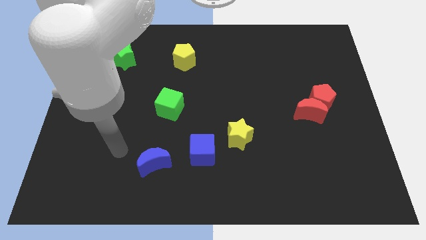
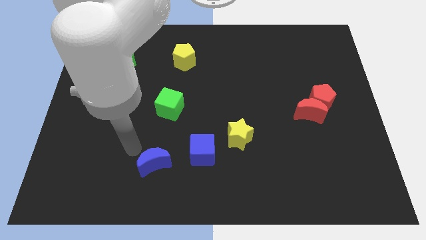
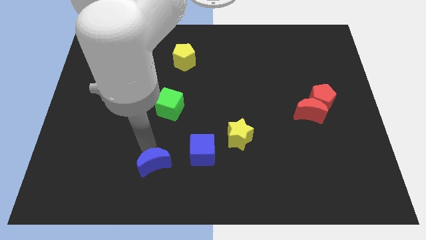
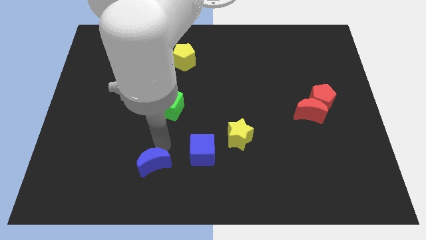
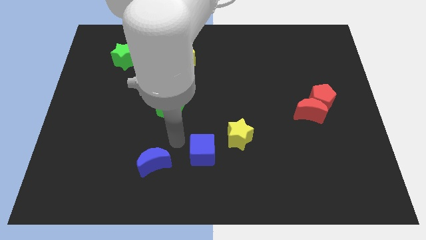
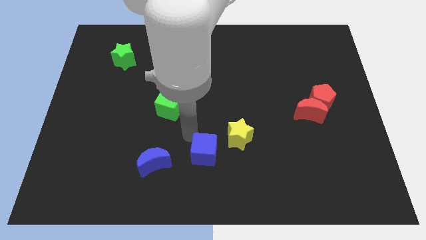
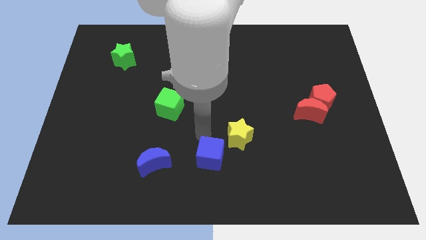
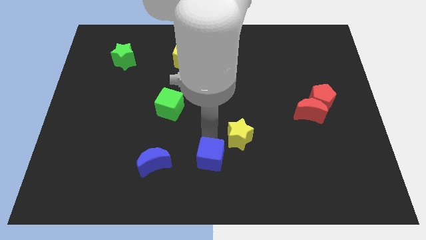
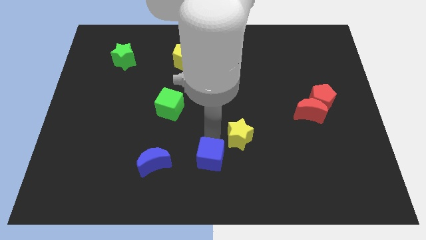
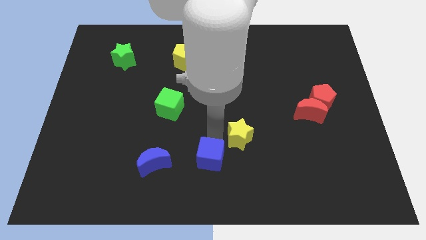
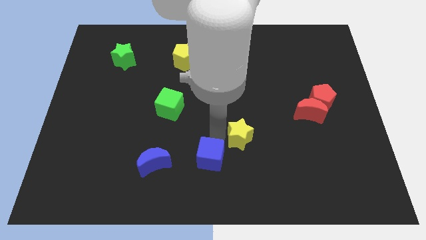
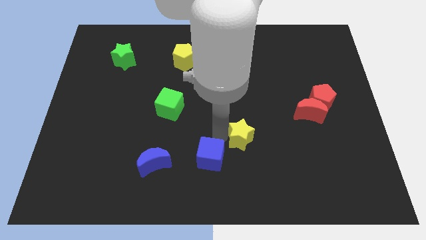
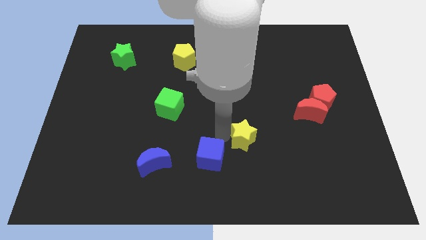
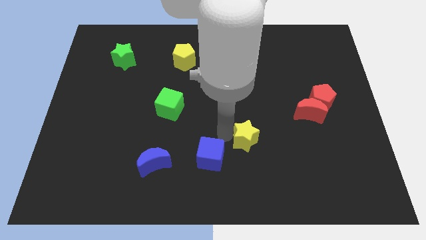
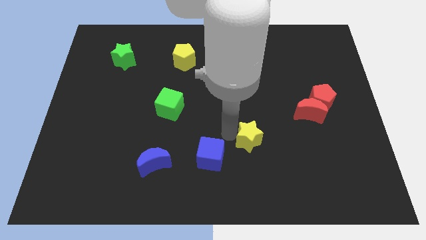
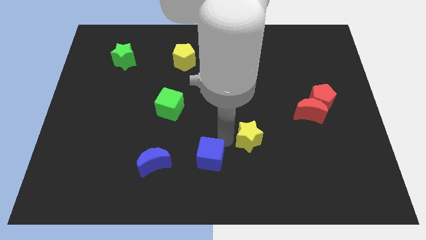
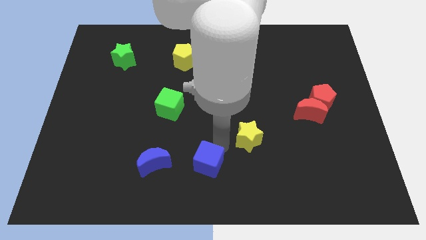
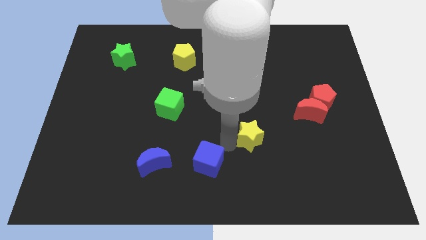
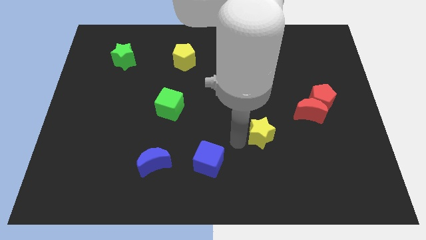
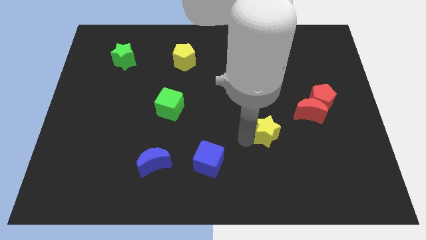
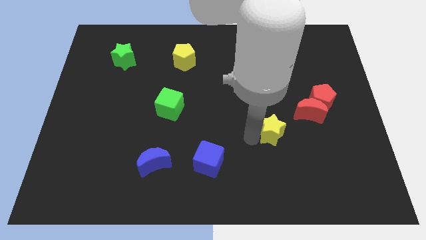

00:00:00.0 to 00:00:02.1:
push the yellow star to the right a bit

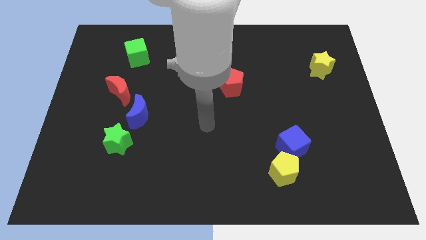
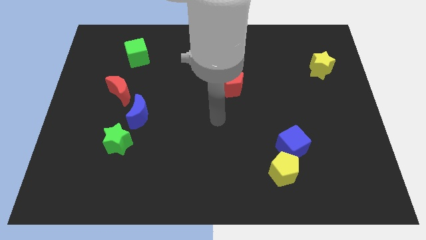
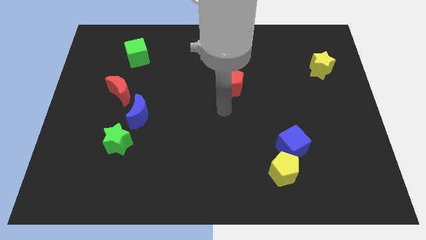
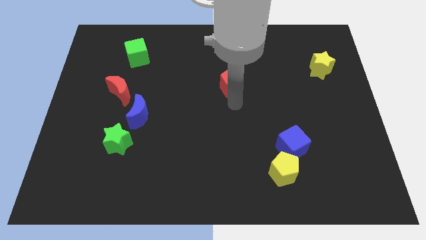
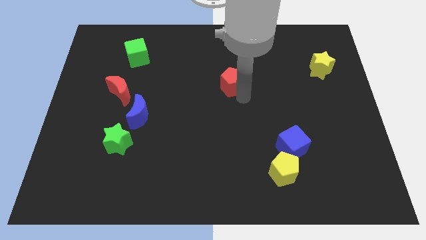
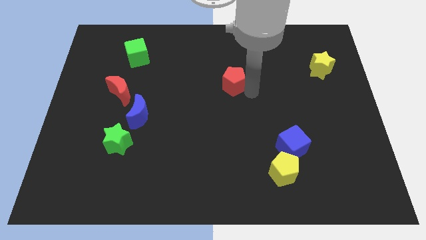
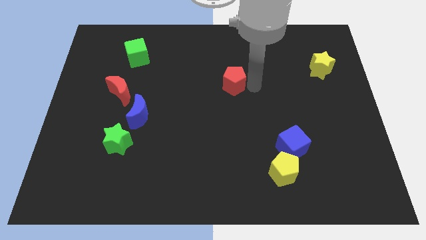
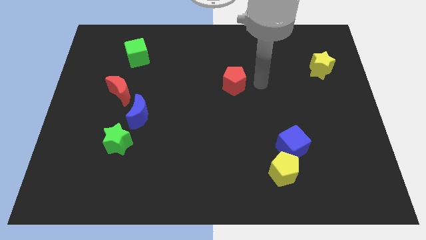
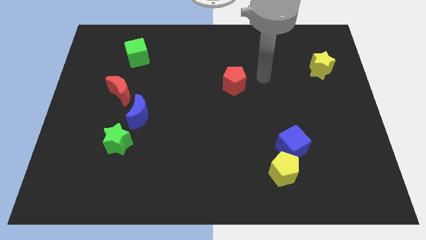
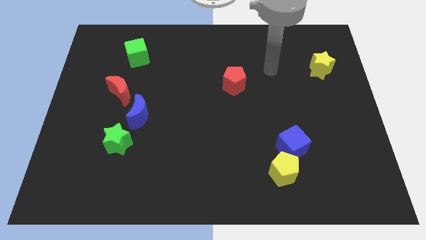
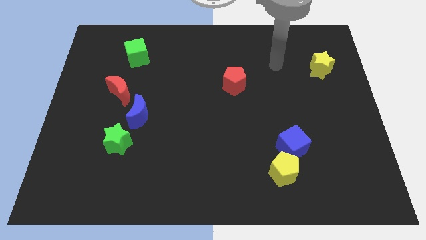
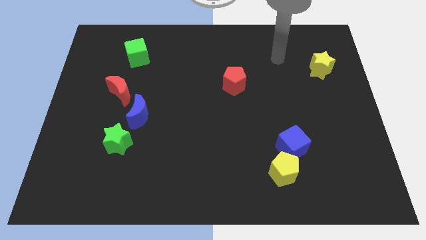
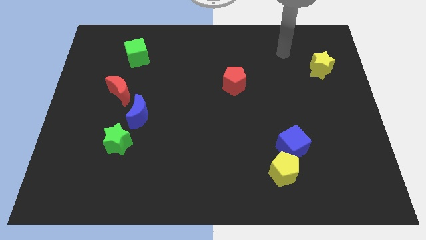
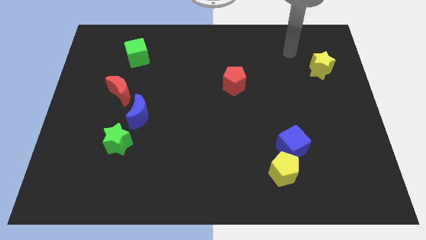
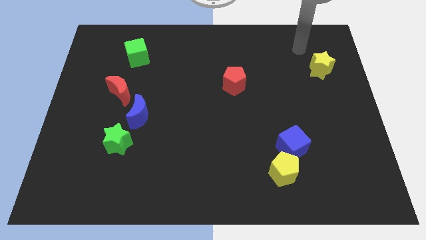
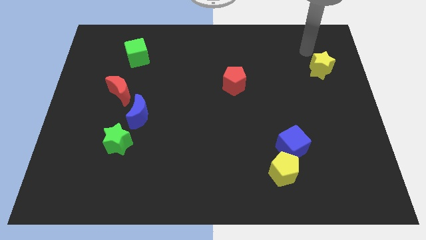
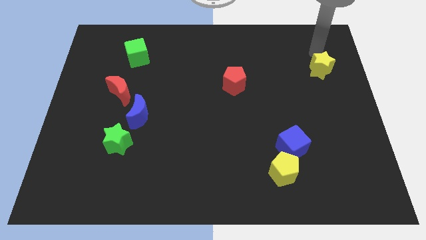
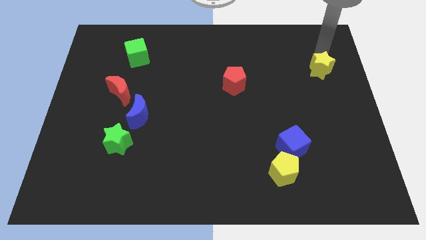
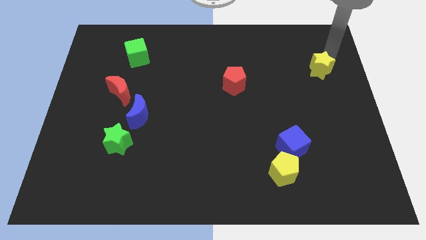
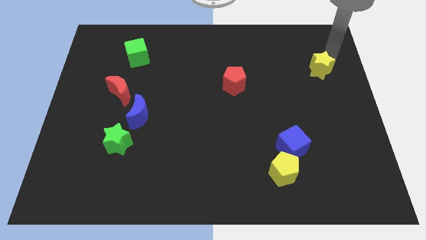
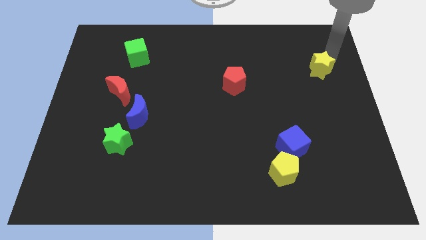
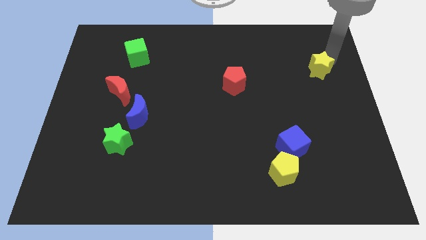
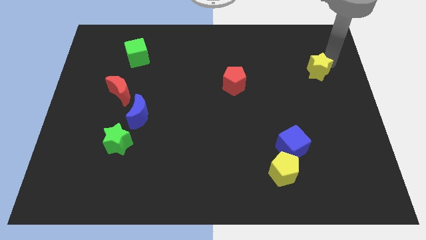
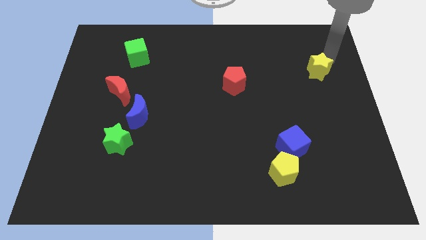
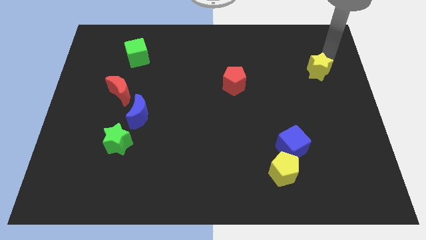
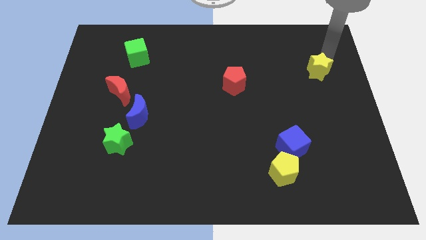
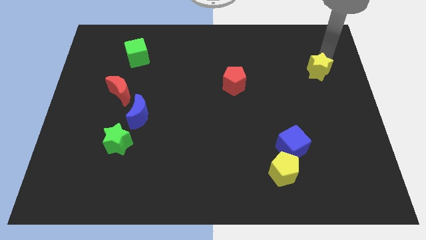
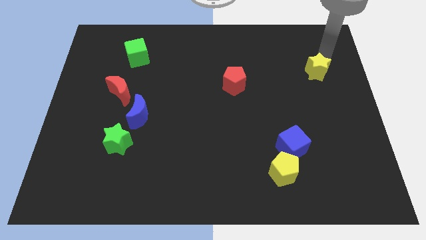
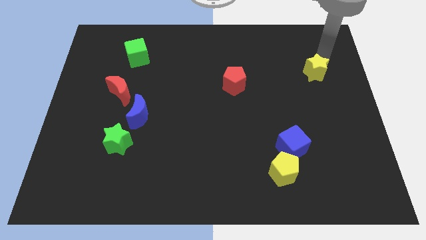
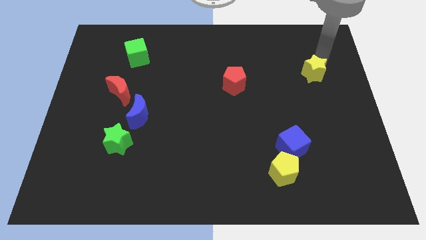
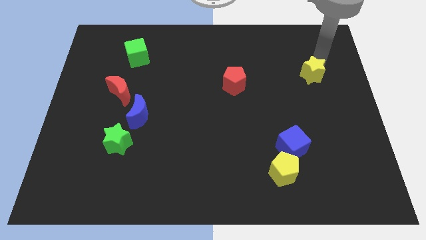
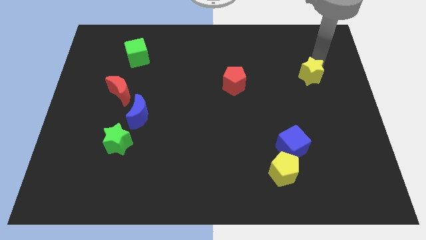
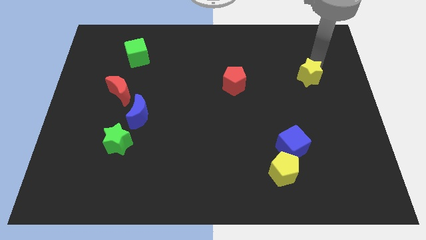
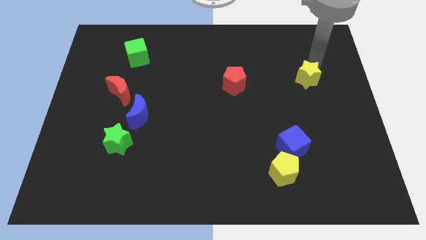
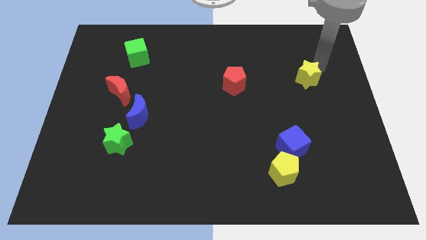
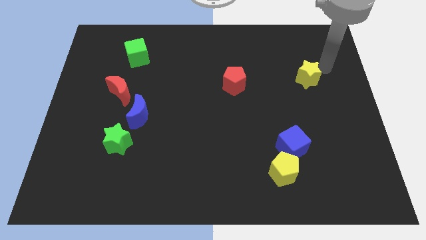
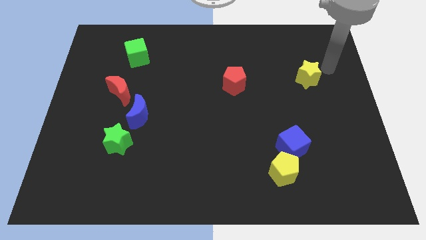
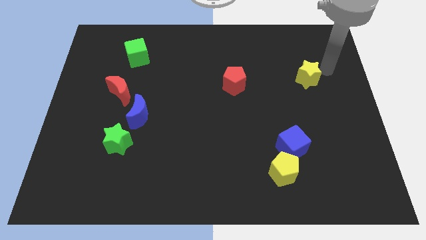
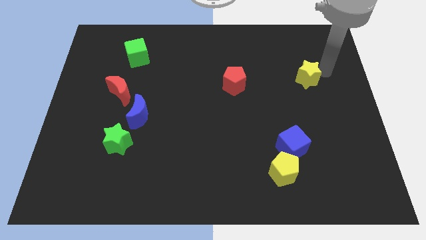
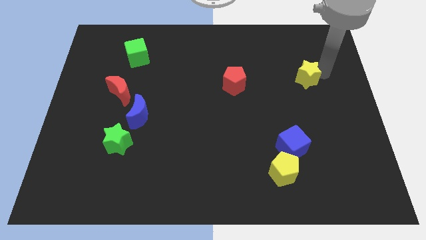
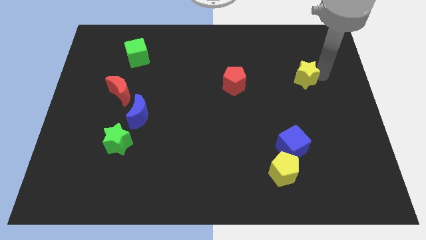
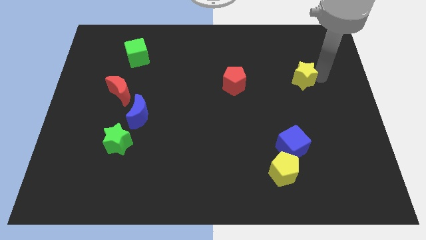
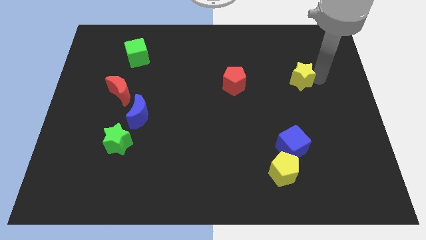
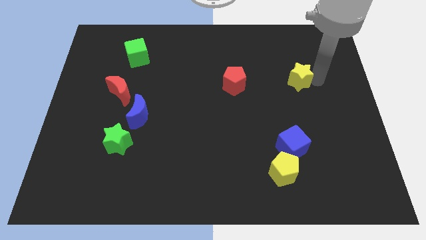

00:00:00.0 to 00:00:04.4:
push the yellow star slightly downwards and then to the left

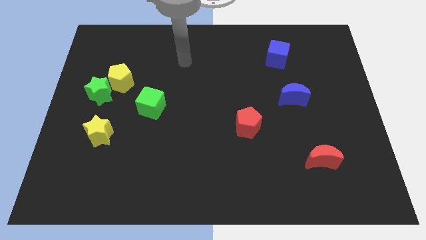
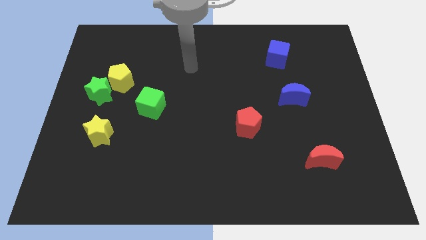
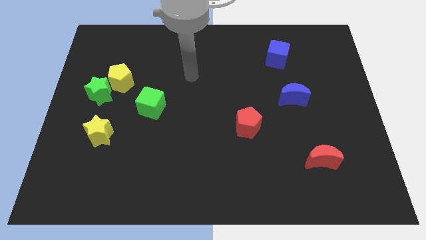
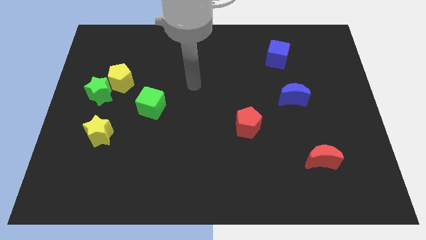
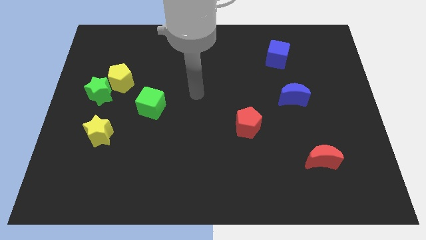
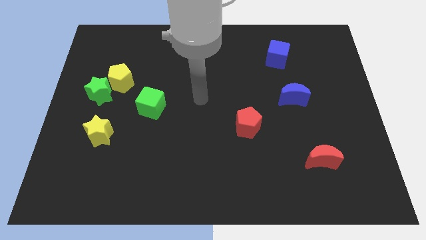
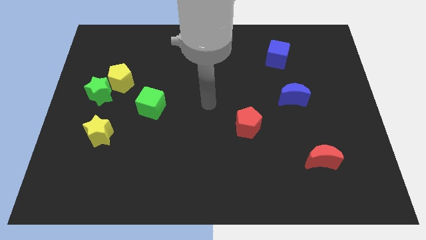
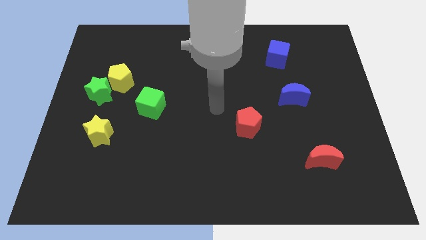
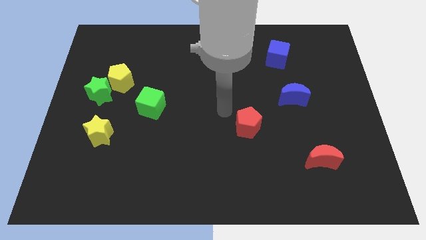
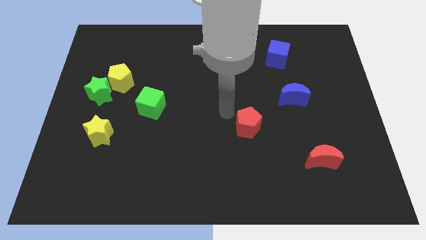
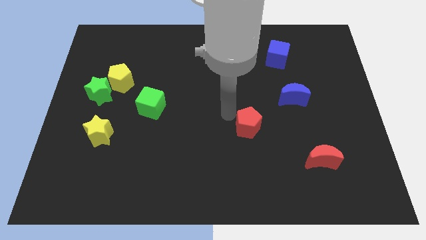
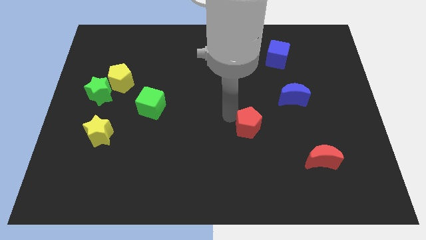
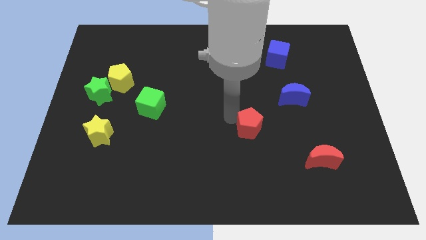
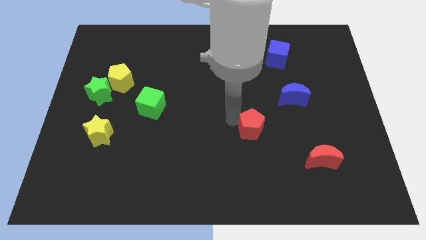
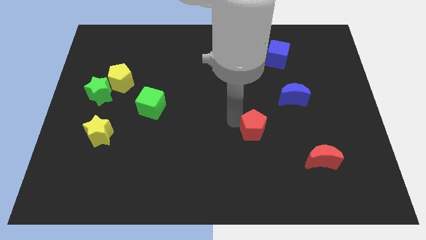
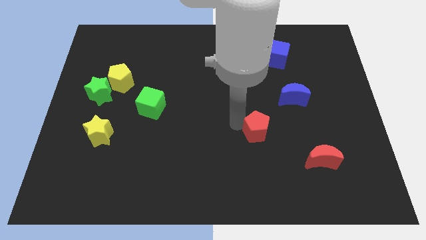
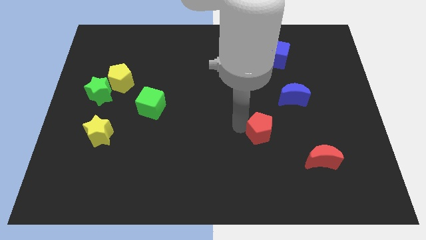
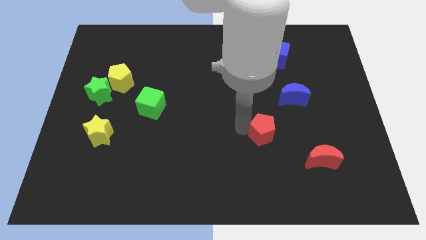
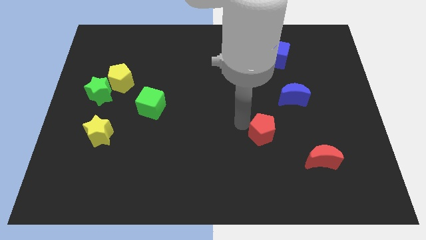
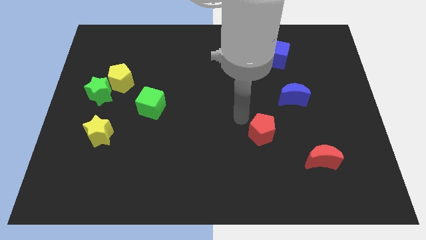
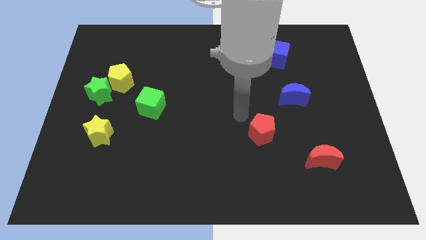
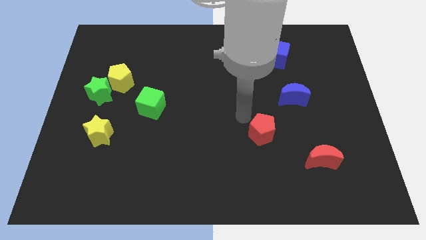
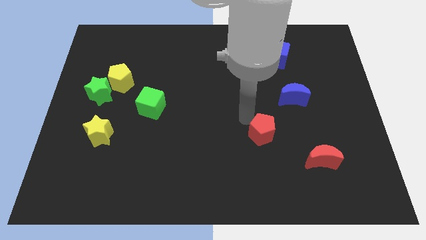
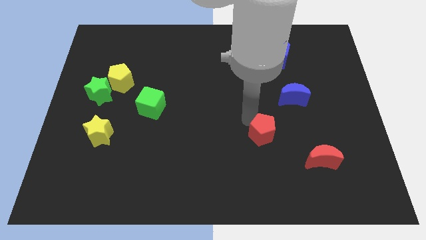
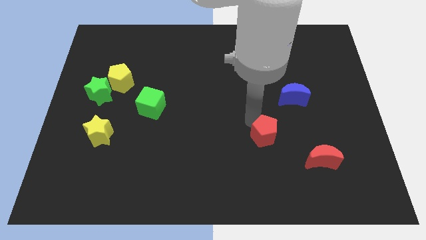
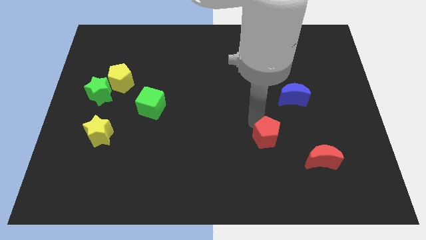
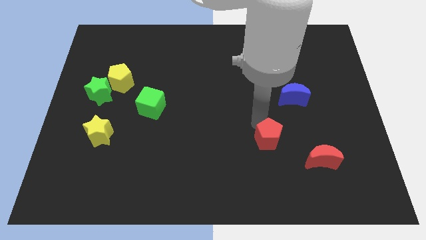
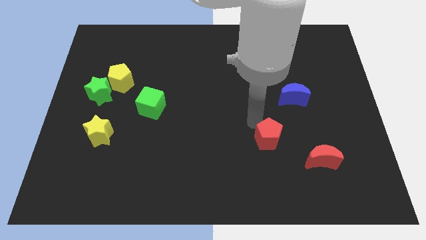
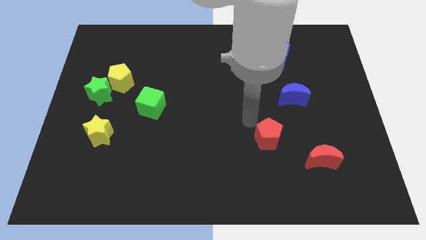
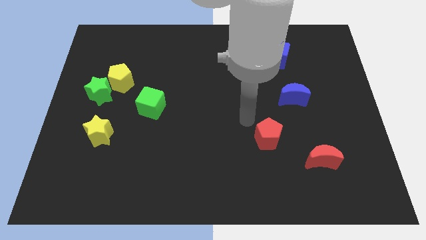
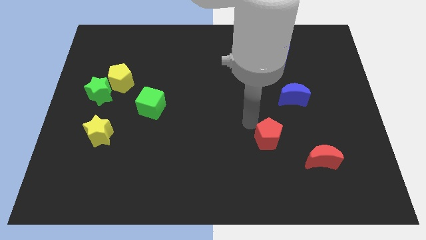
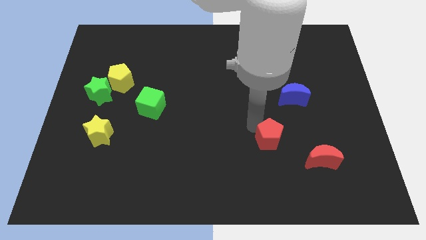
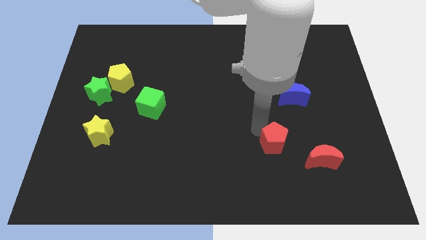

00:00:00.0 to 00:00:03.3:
move the red pentagon downwards and right slightly
